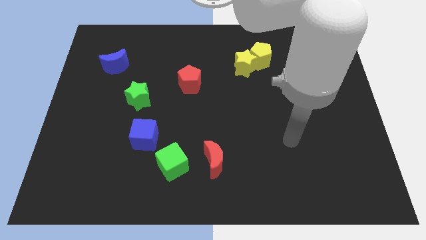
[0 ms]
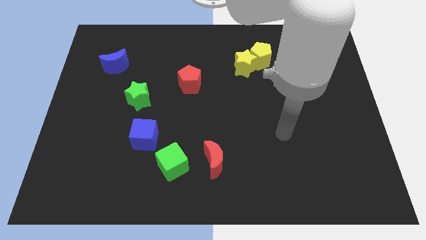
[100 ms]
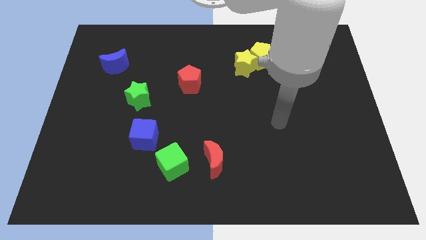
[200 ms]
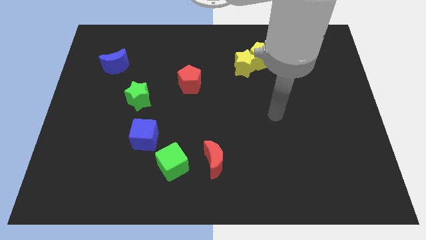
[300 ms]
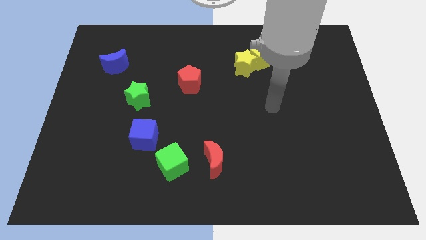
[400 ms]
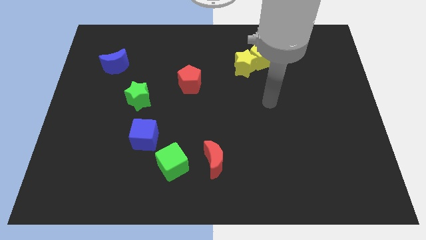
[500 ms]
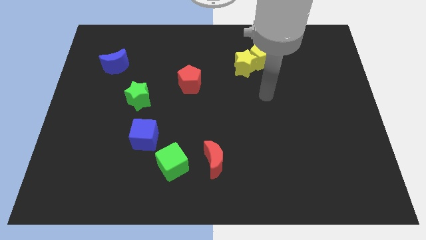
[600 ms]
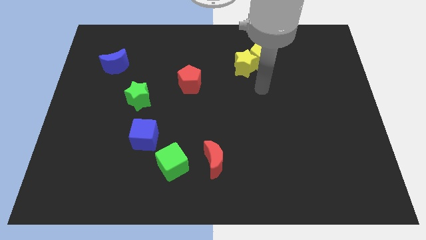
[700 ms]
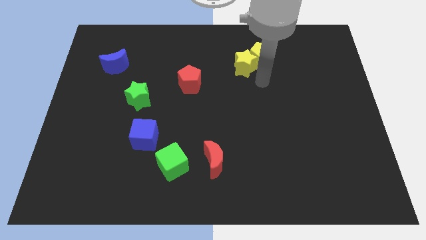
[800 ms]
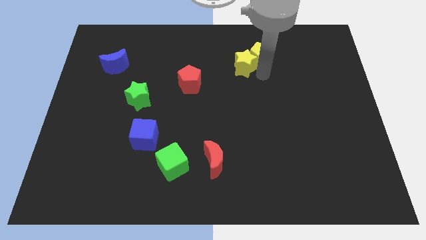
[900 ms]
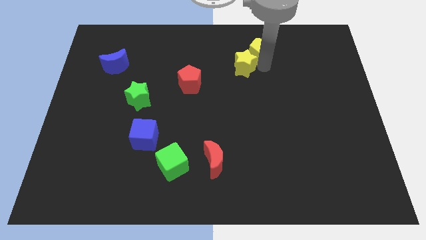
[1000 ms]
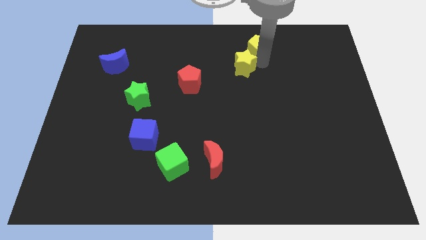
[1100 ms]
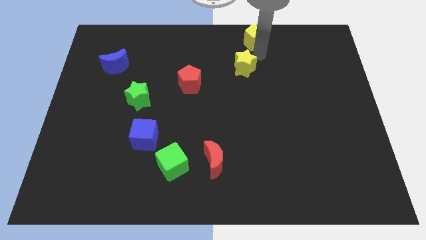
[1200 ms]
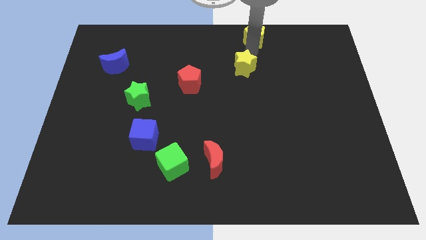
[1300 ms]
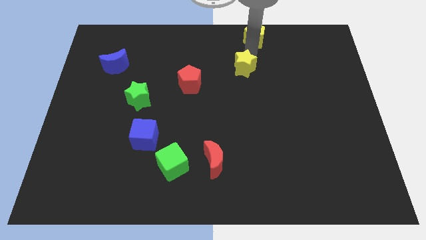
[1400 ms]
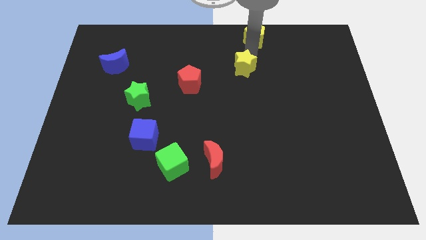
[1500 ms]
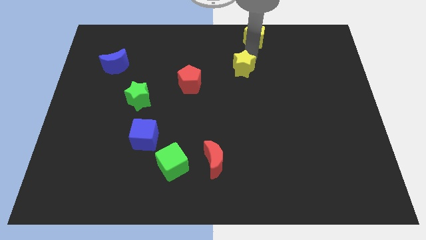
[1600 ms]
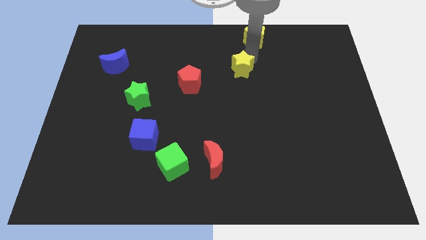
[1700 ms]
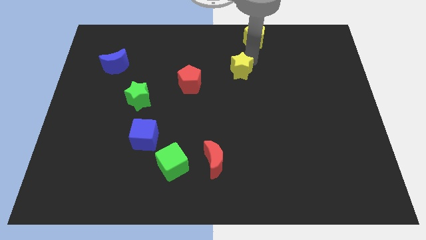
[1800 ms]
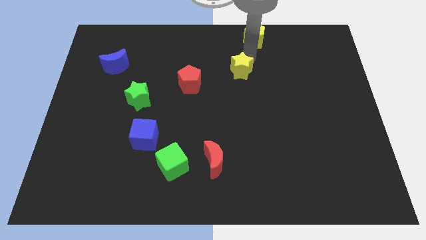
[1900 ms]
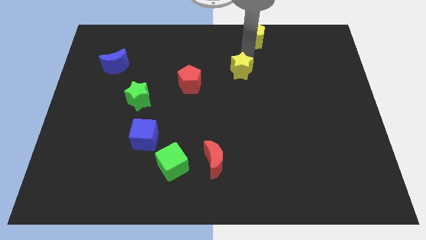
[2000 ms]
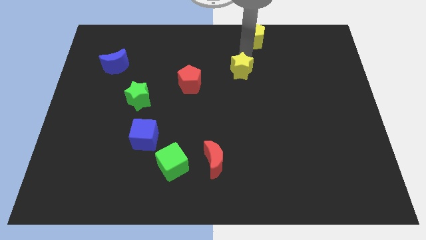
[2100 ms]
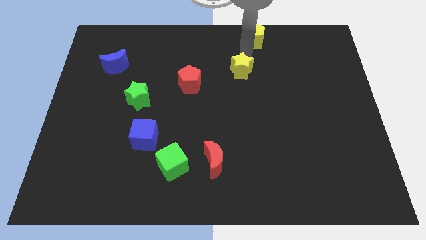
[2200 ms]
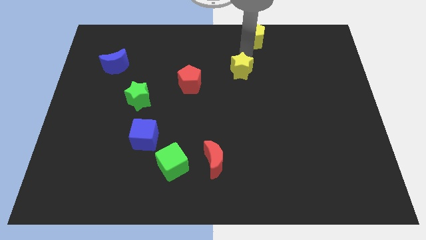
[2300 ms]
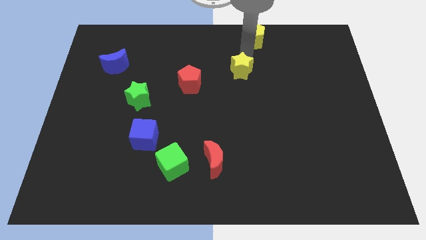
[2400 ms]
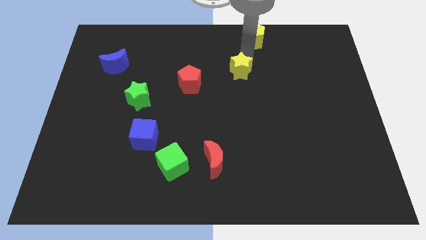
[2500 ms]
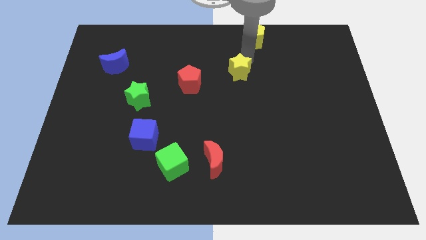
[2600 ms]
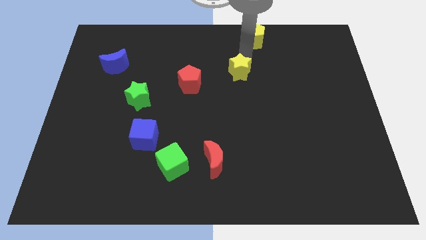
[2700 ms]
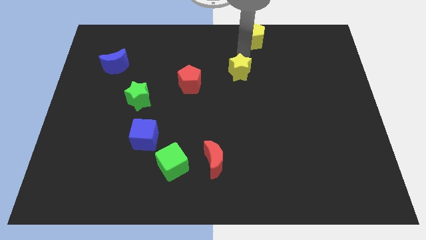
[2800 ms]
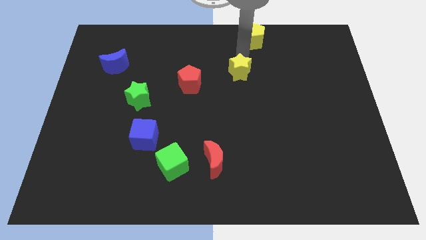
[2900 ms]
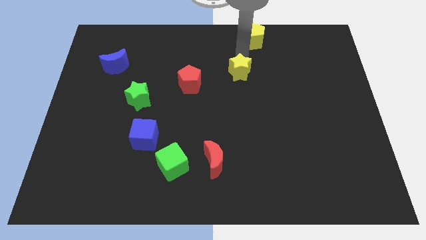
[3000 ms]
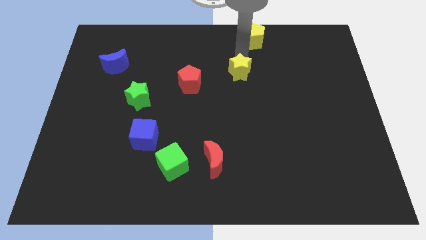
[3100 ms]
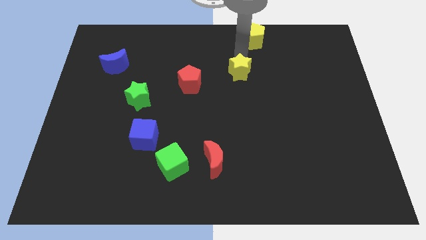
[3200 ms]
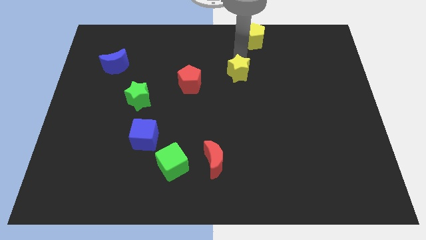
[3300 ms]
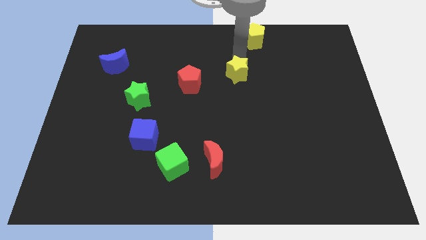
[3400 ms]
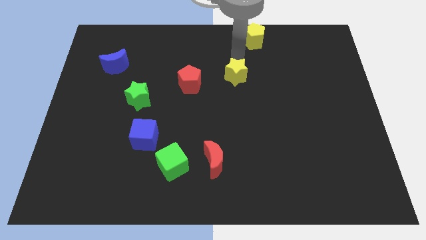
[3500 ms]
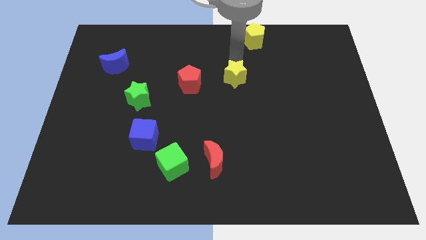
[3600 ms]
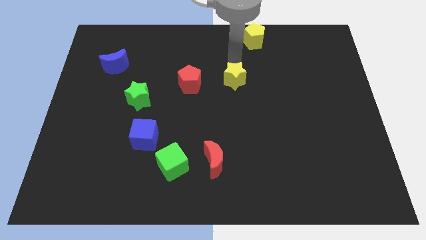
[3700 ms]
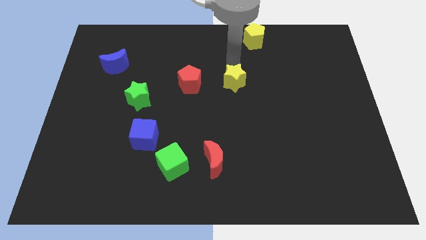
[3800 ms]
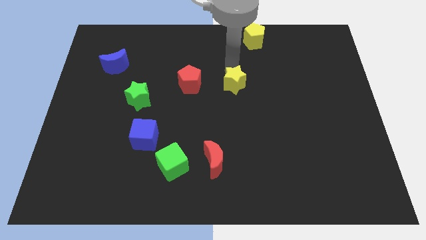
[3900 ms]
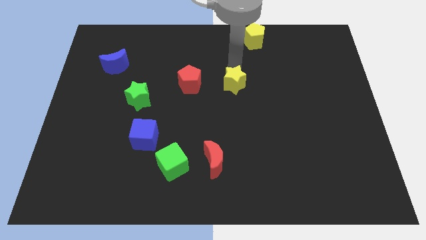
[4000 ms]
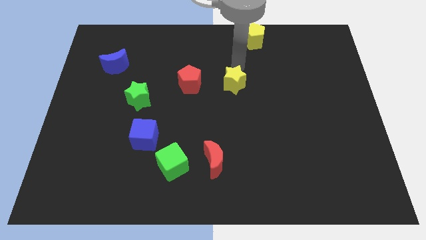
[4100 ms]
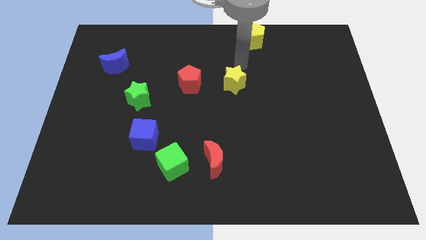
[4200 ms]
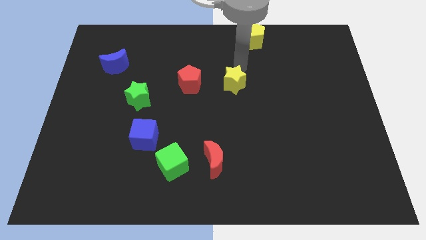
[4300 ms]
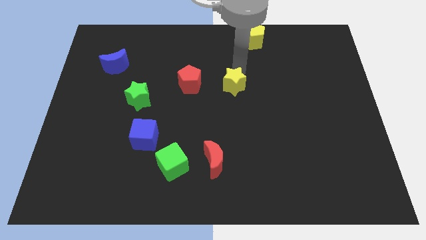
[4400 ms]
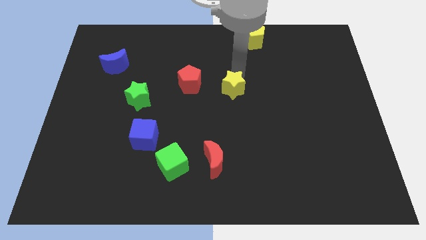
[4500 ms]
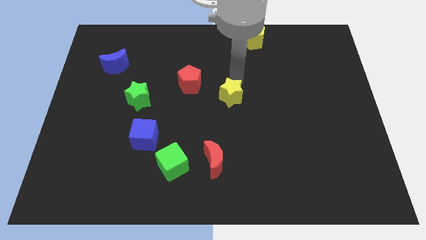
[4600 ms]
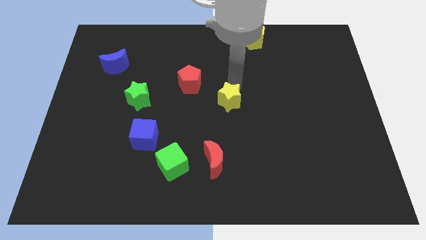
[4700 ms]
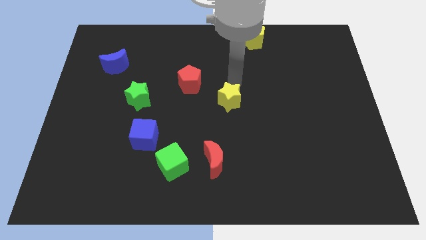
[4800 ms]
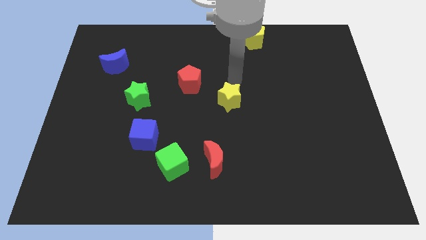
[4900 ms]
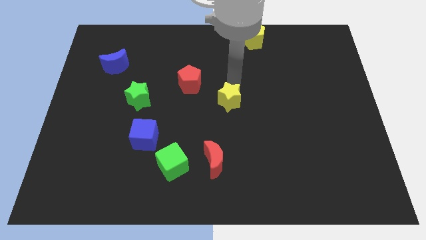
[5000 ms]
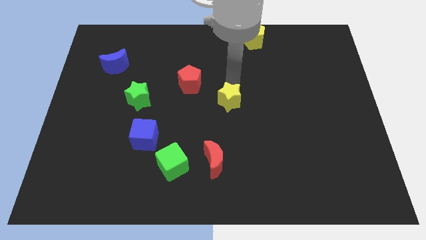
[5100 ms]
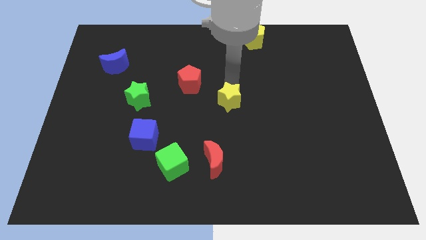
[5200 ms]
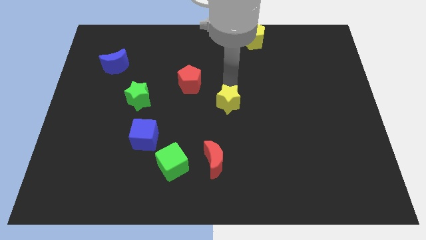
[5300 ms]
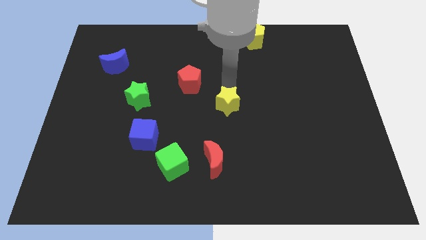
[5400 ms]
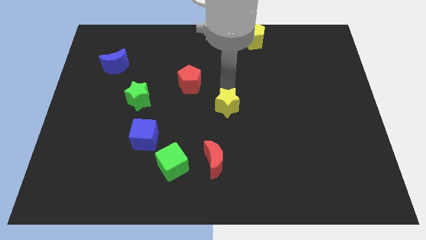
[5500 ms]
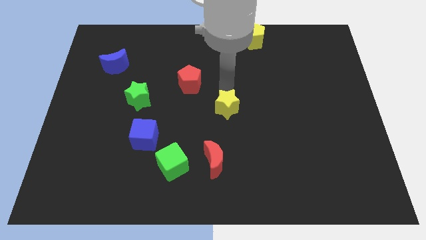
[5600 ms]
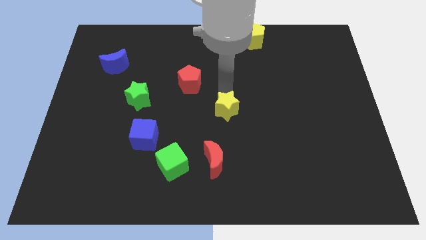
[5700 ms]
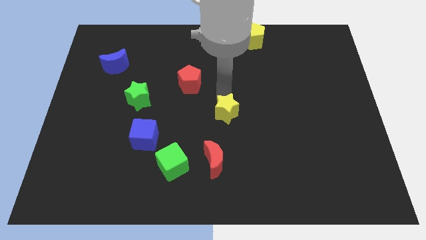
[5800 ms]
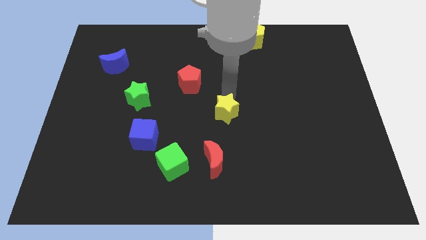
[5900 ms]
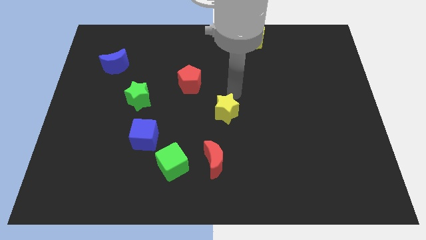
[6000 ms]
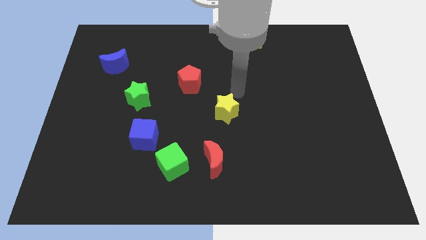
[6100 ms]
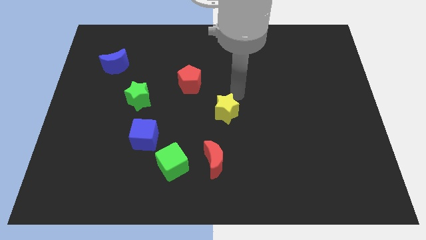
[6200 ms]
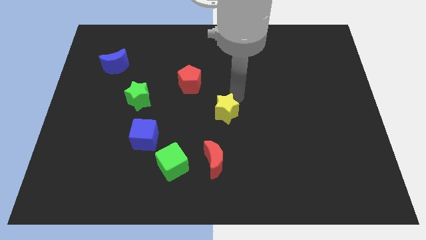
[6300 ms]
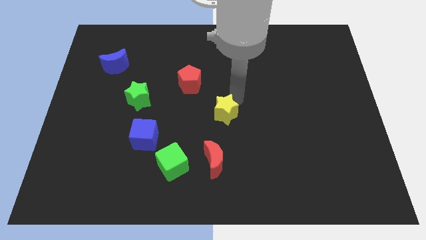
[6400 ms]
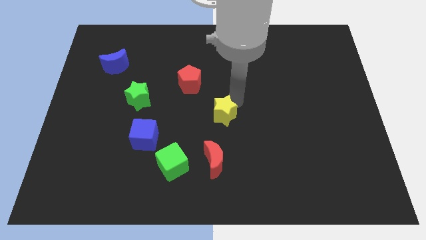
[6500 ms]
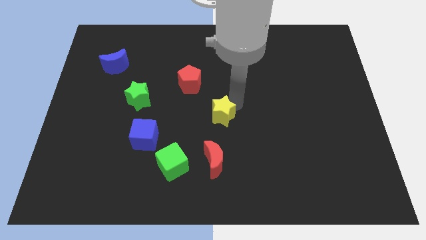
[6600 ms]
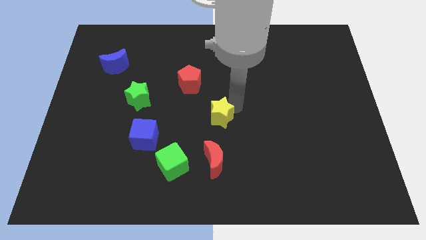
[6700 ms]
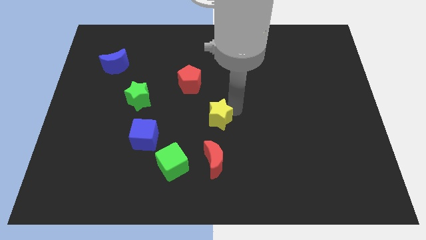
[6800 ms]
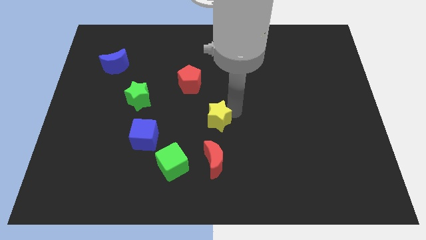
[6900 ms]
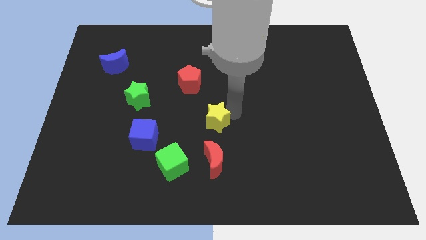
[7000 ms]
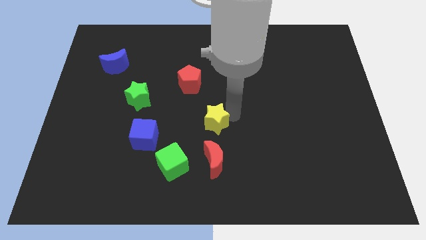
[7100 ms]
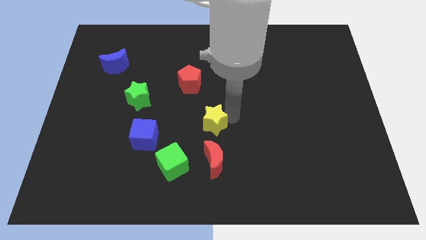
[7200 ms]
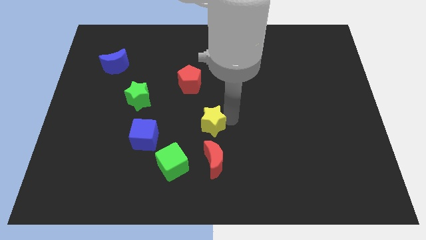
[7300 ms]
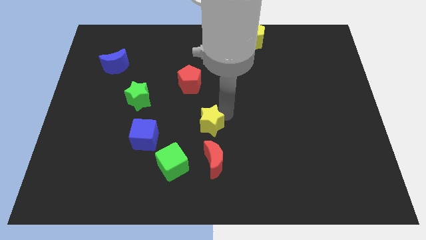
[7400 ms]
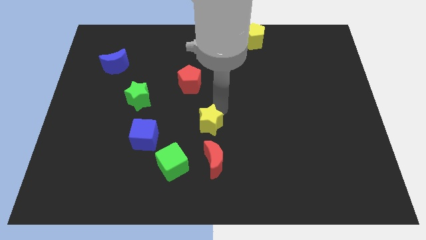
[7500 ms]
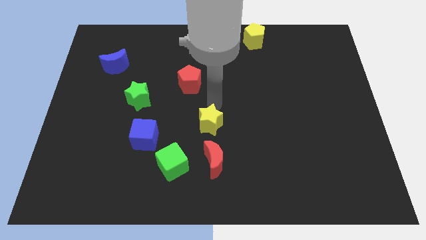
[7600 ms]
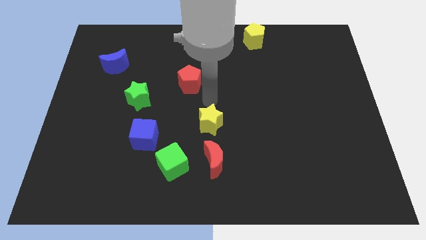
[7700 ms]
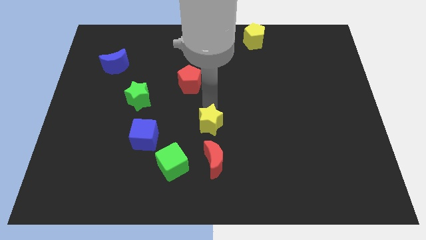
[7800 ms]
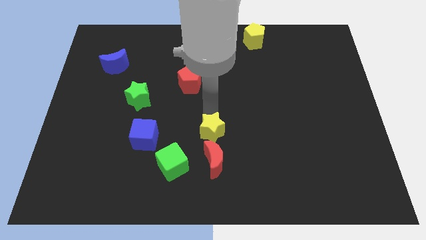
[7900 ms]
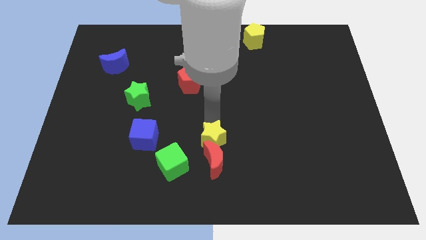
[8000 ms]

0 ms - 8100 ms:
push the yellow star to the red moon
